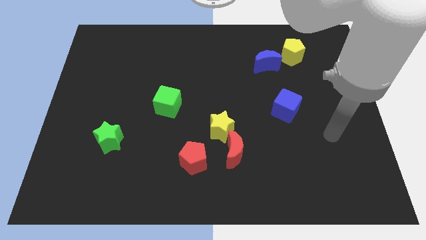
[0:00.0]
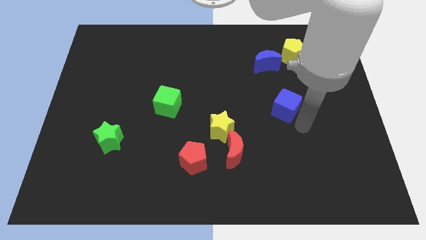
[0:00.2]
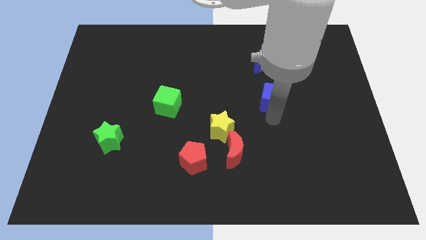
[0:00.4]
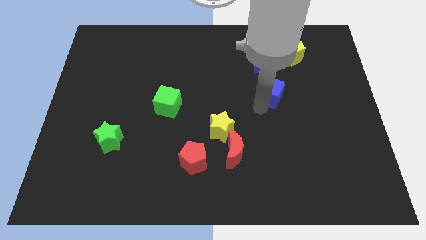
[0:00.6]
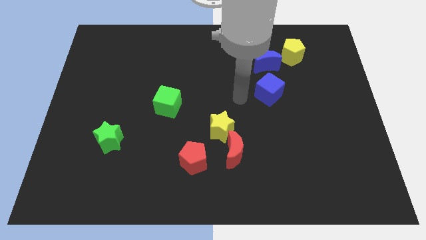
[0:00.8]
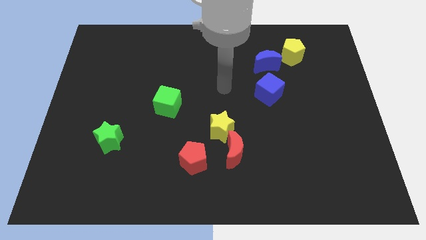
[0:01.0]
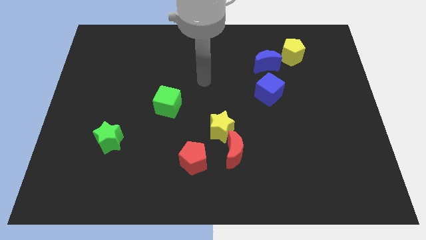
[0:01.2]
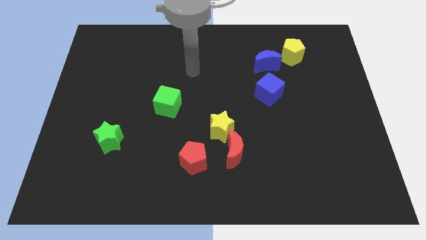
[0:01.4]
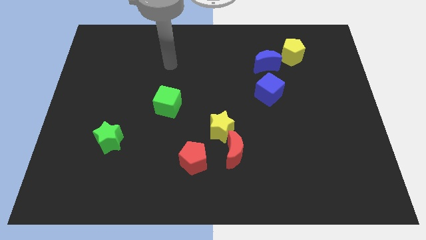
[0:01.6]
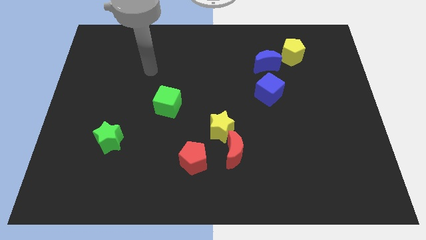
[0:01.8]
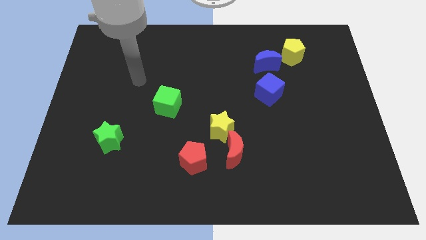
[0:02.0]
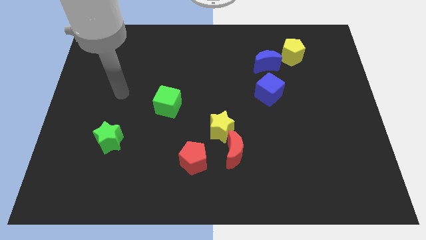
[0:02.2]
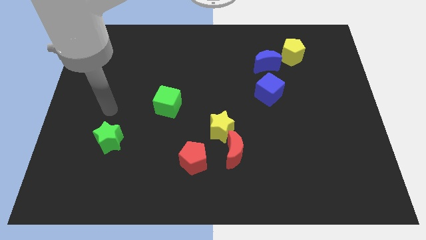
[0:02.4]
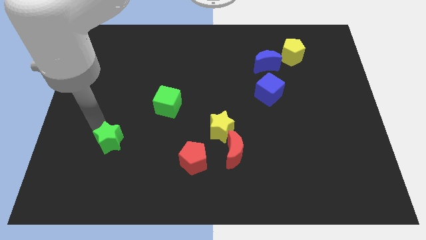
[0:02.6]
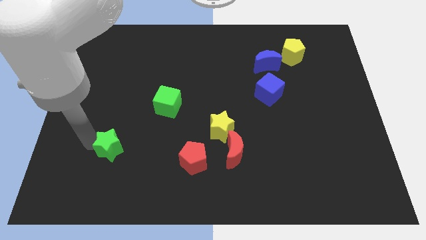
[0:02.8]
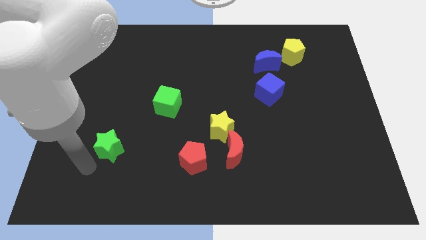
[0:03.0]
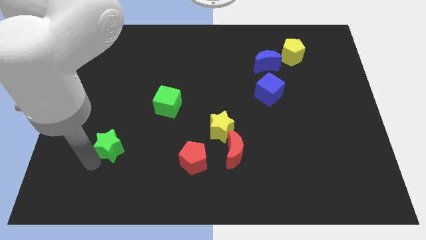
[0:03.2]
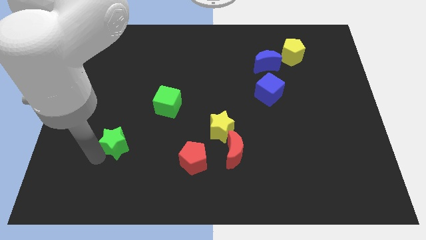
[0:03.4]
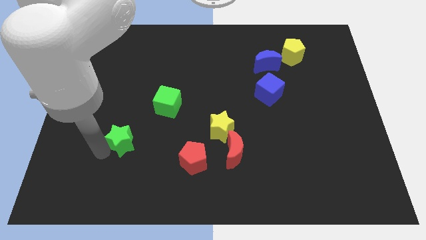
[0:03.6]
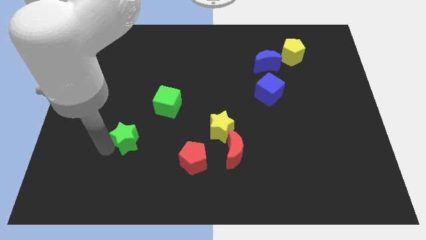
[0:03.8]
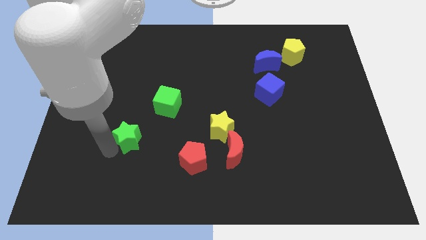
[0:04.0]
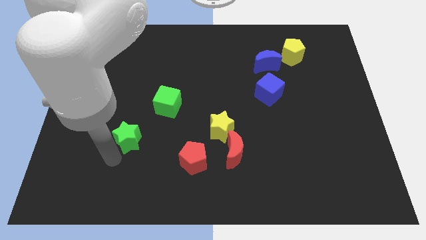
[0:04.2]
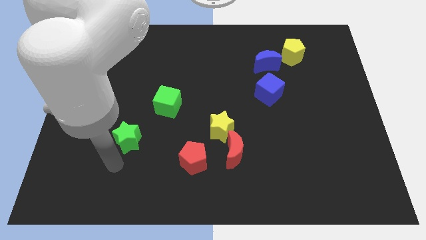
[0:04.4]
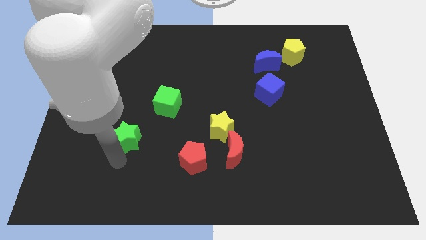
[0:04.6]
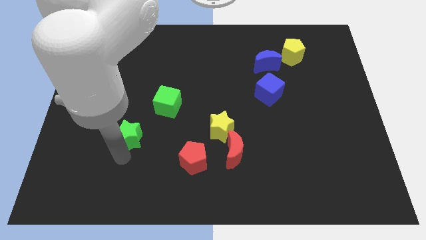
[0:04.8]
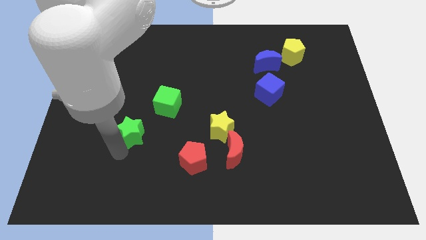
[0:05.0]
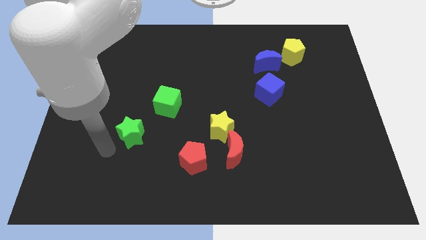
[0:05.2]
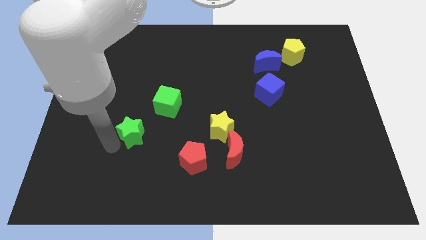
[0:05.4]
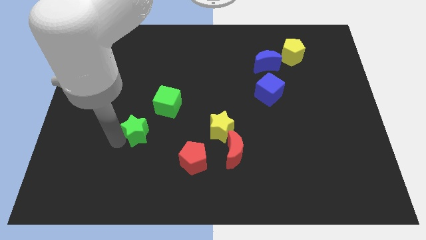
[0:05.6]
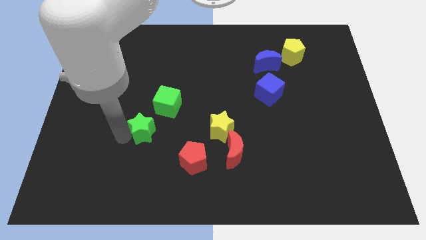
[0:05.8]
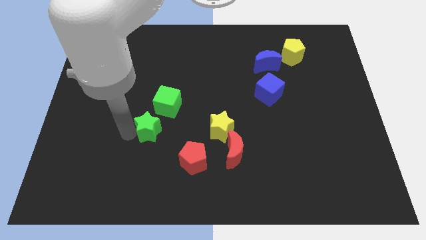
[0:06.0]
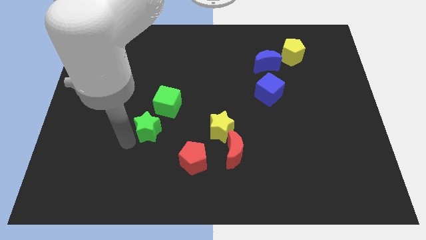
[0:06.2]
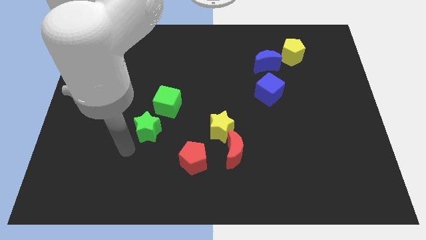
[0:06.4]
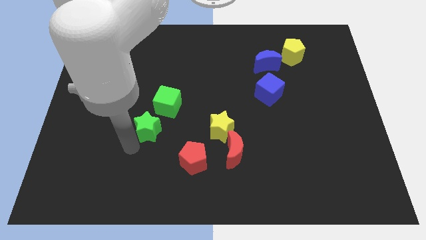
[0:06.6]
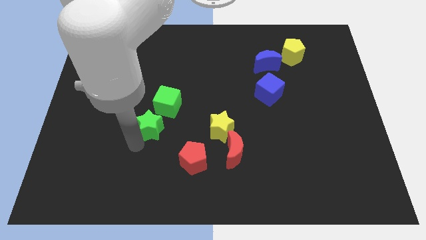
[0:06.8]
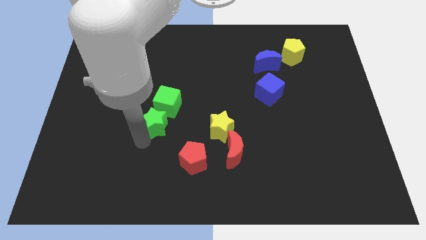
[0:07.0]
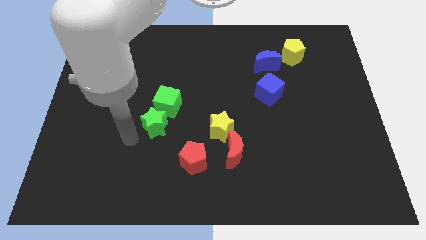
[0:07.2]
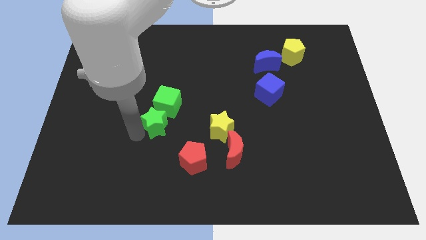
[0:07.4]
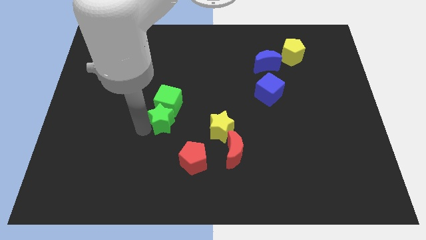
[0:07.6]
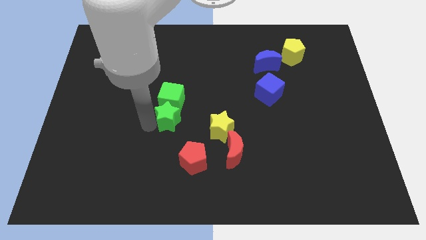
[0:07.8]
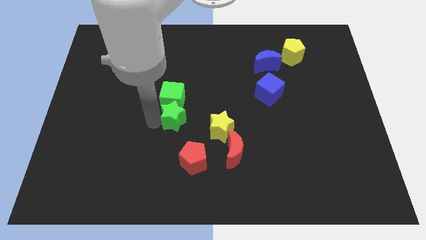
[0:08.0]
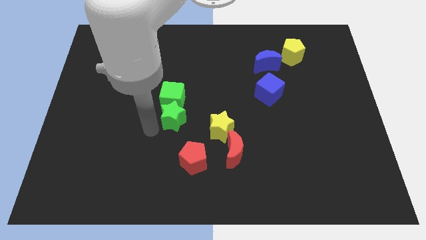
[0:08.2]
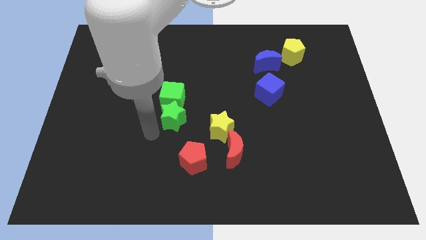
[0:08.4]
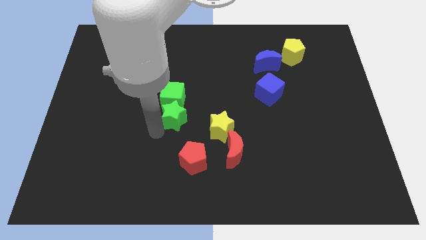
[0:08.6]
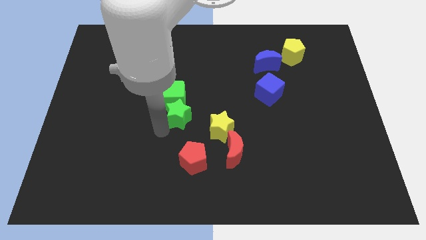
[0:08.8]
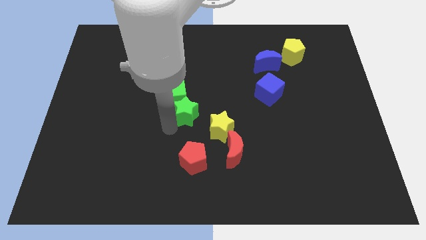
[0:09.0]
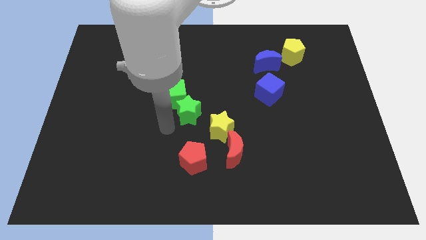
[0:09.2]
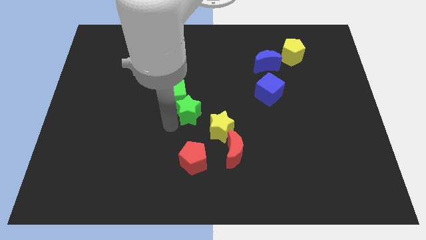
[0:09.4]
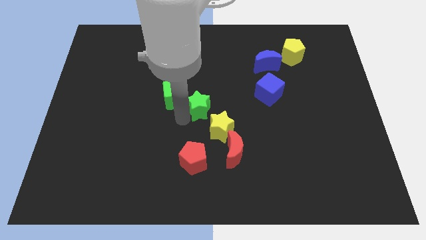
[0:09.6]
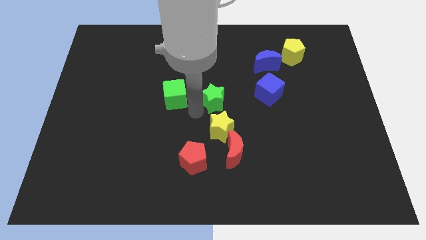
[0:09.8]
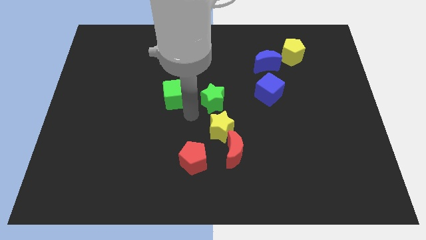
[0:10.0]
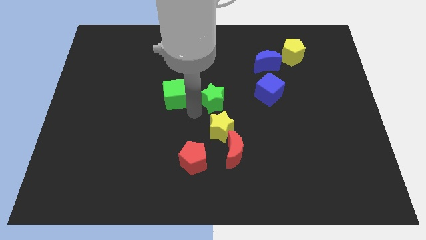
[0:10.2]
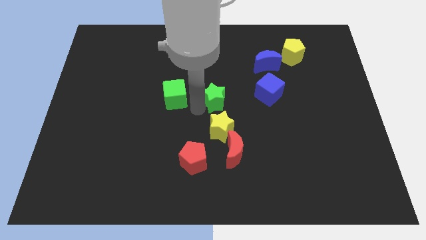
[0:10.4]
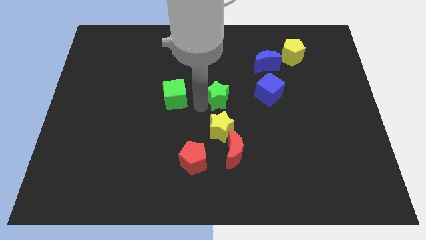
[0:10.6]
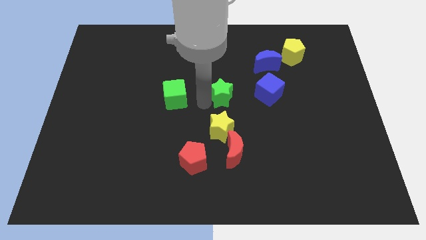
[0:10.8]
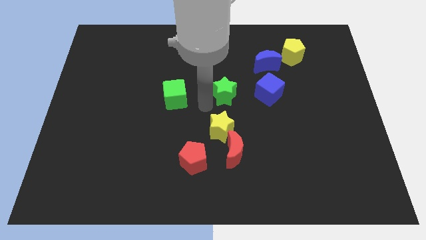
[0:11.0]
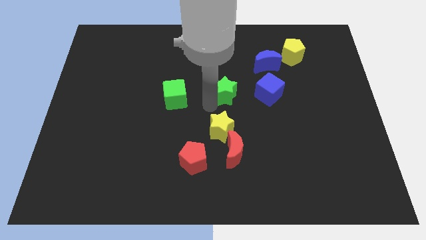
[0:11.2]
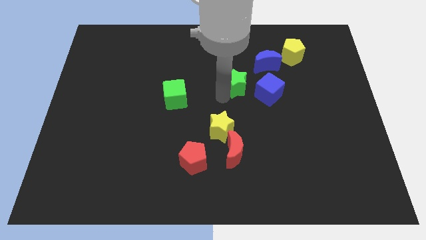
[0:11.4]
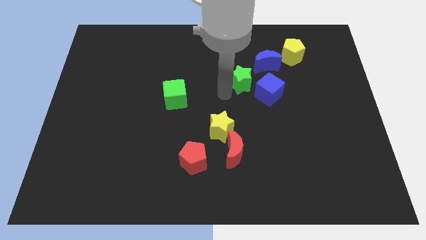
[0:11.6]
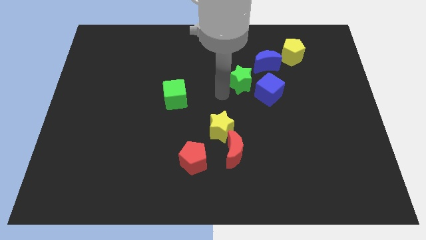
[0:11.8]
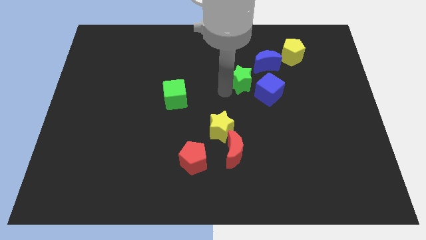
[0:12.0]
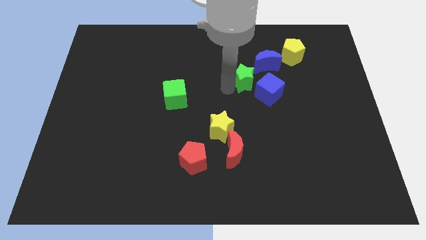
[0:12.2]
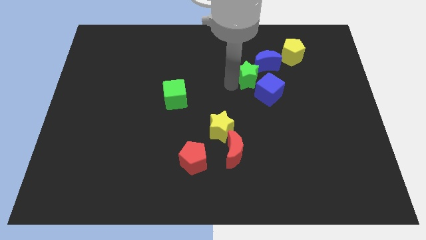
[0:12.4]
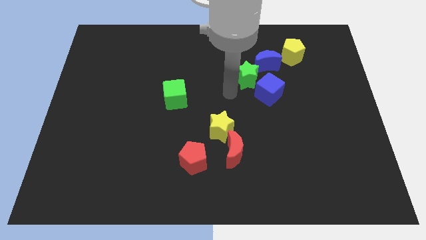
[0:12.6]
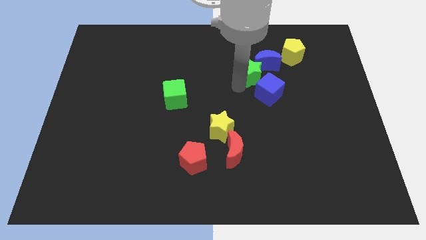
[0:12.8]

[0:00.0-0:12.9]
move the green star close to the blue moon

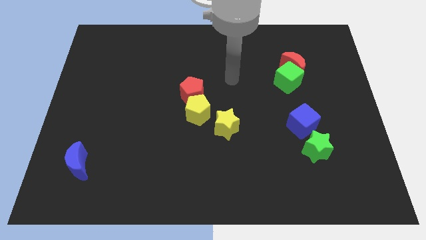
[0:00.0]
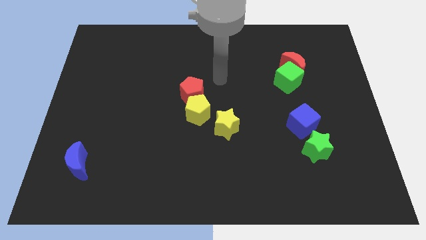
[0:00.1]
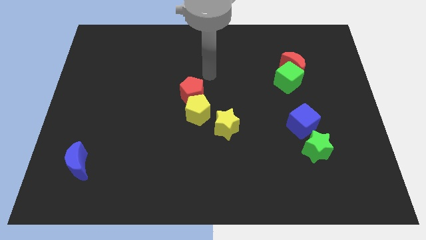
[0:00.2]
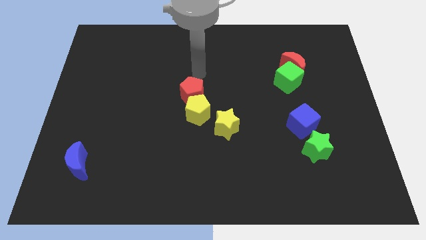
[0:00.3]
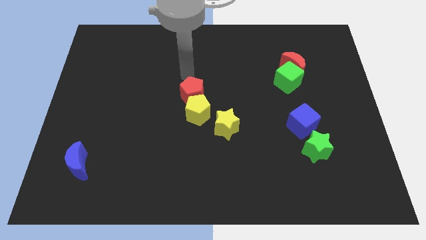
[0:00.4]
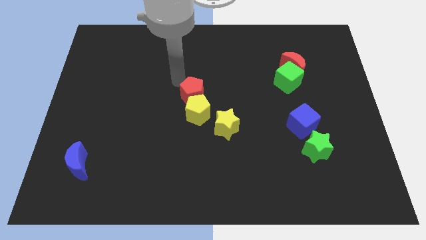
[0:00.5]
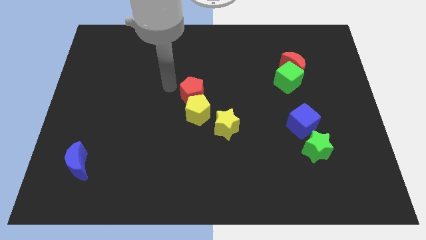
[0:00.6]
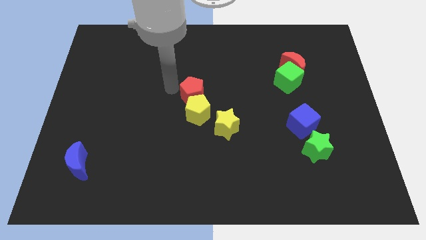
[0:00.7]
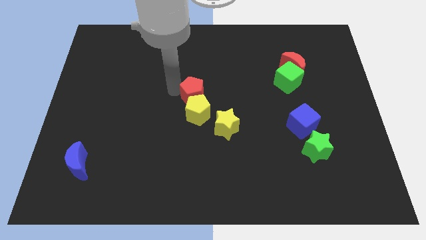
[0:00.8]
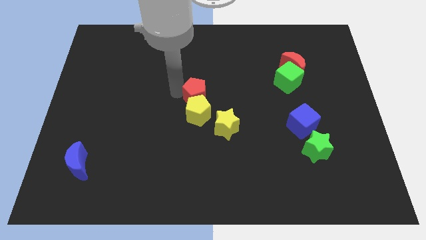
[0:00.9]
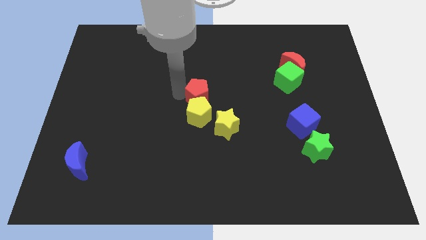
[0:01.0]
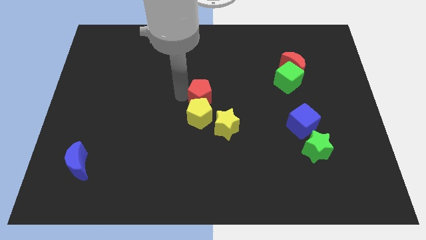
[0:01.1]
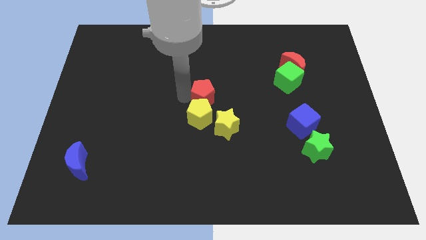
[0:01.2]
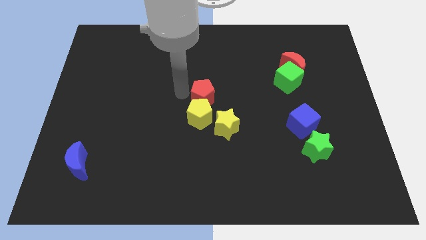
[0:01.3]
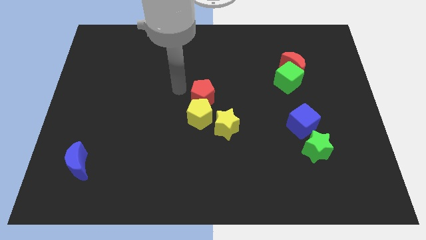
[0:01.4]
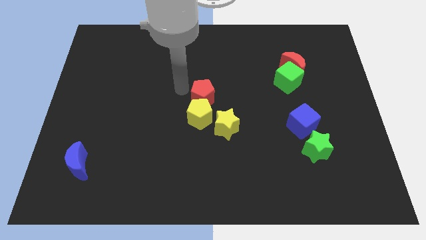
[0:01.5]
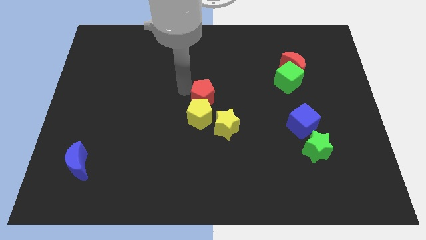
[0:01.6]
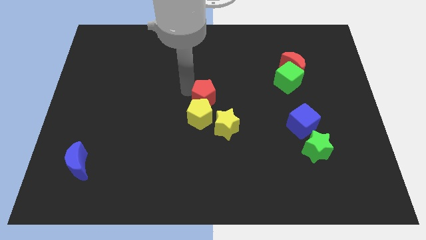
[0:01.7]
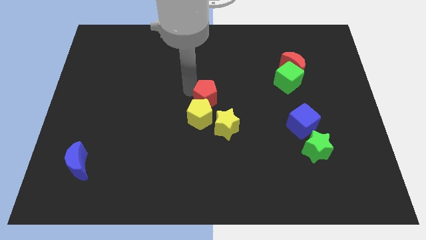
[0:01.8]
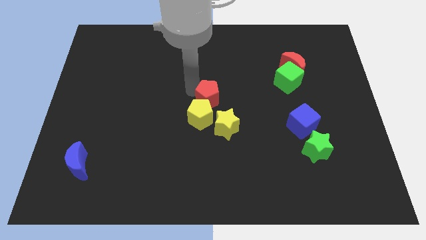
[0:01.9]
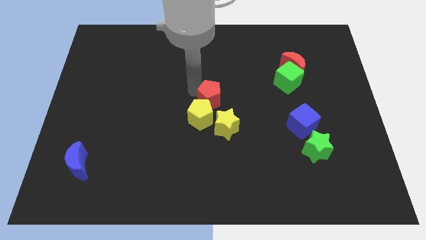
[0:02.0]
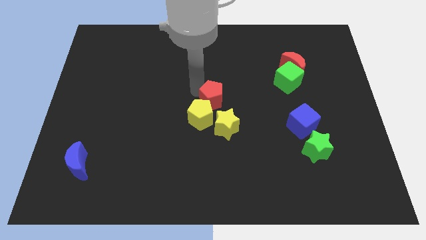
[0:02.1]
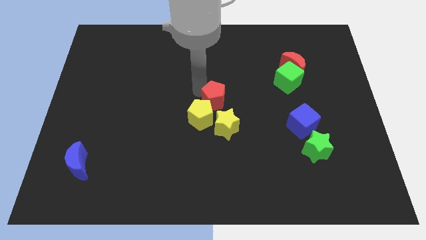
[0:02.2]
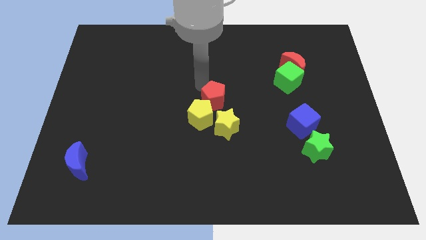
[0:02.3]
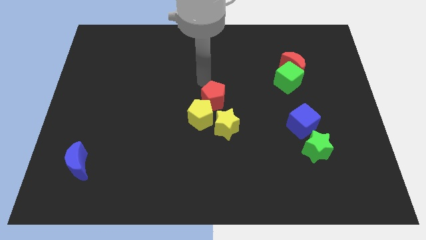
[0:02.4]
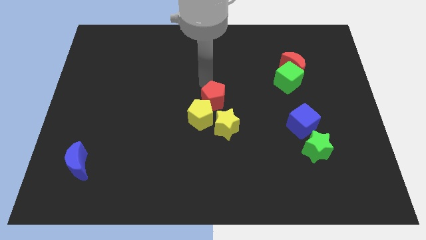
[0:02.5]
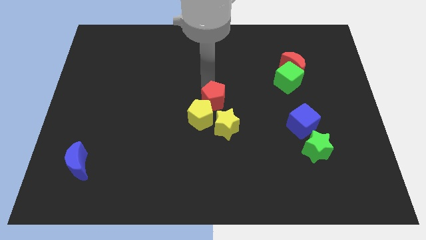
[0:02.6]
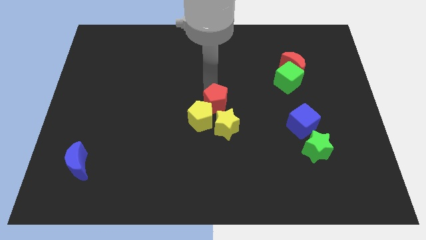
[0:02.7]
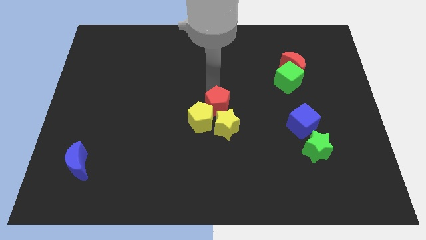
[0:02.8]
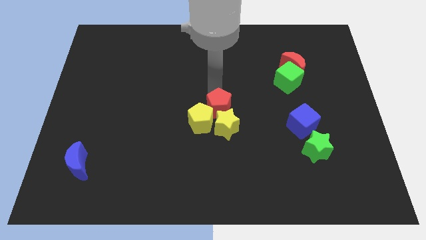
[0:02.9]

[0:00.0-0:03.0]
push the red pentagon towards the yellow star
